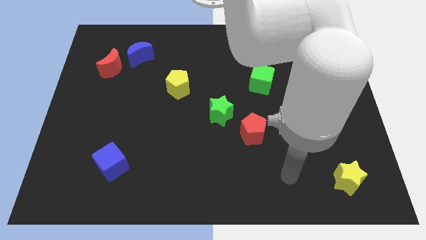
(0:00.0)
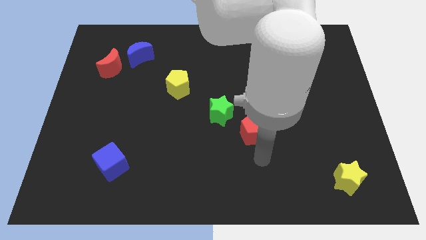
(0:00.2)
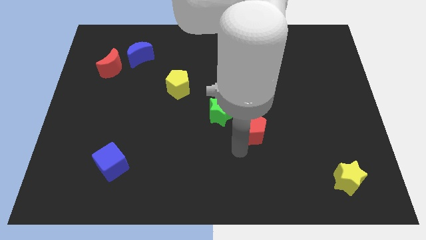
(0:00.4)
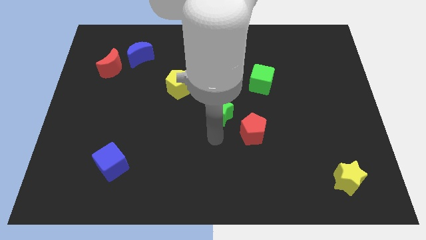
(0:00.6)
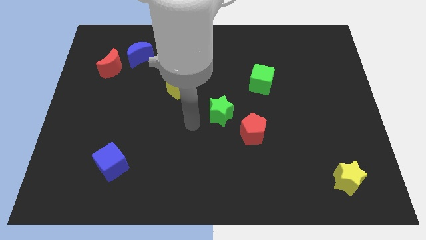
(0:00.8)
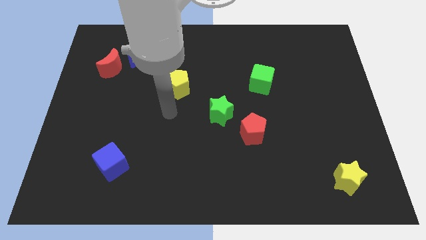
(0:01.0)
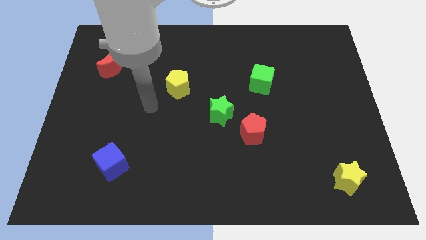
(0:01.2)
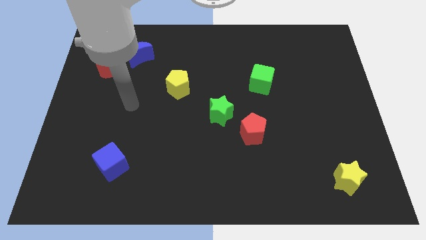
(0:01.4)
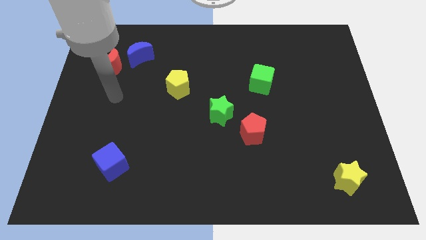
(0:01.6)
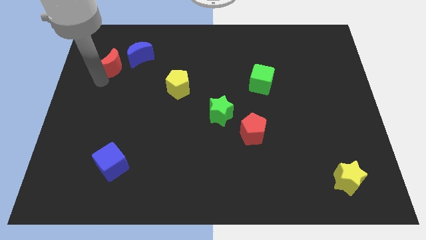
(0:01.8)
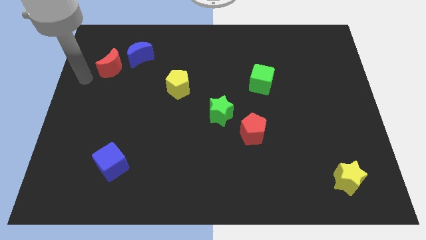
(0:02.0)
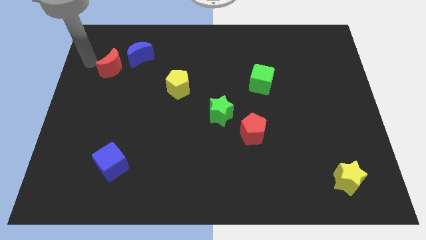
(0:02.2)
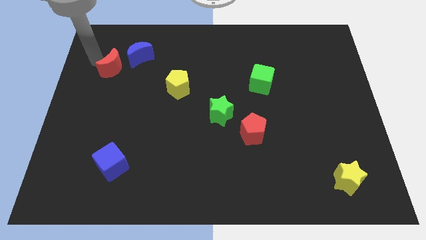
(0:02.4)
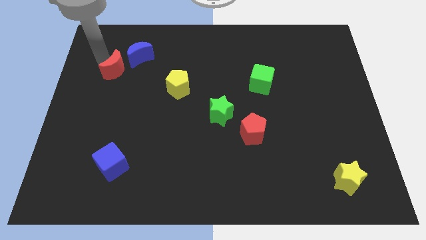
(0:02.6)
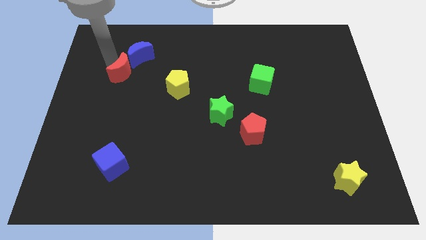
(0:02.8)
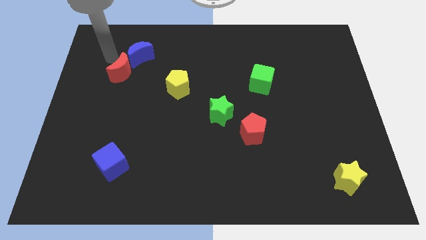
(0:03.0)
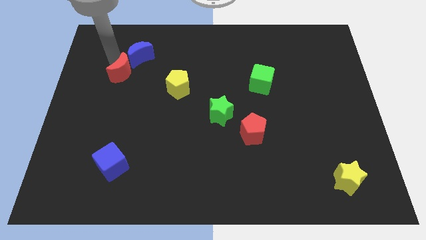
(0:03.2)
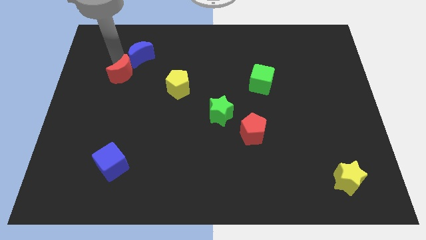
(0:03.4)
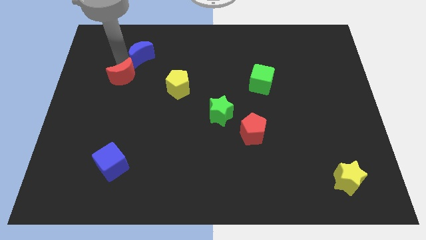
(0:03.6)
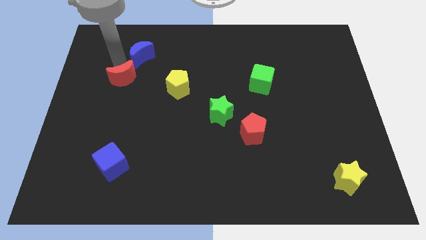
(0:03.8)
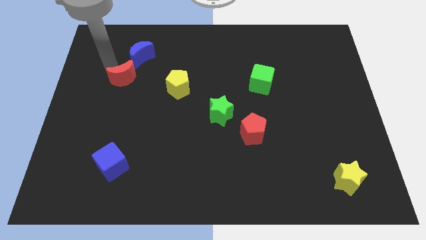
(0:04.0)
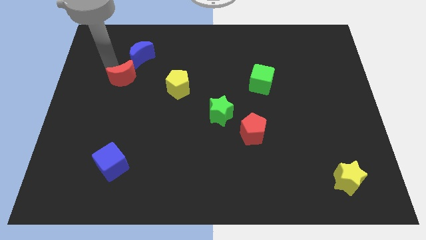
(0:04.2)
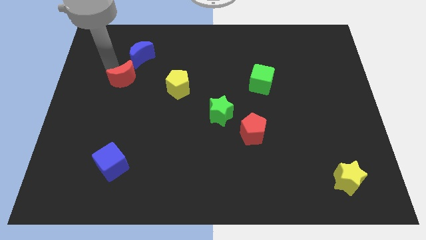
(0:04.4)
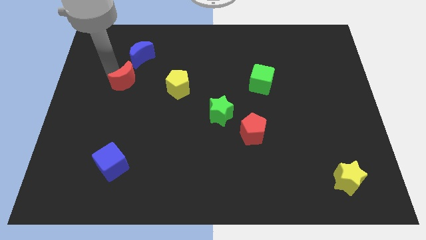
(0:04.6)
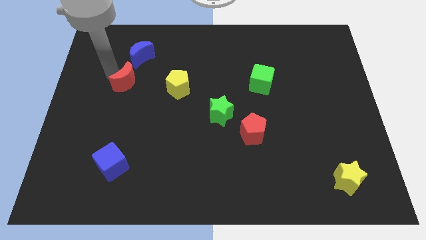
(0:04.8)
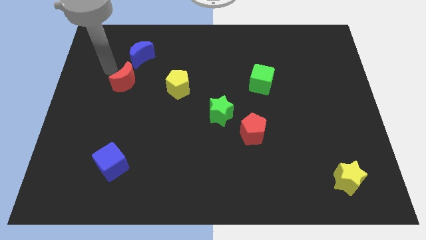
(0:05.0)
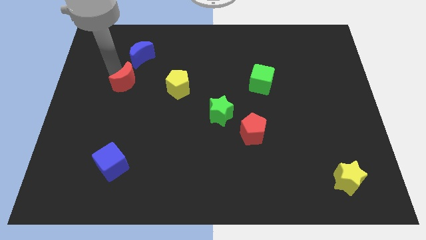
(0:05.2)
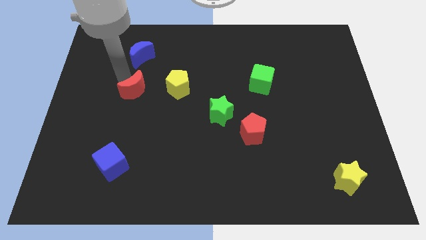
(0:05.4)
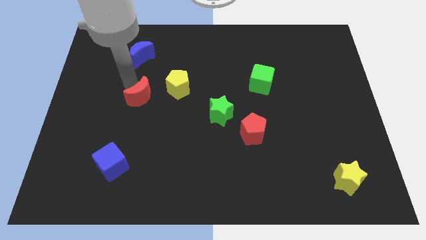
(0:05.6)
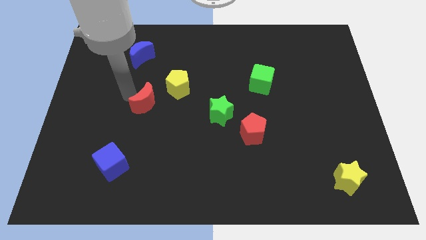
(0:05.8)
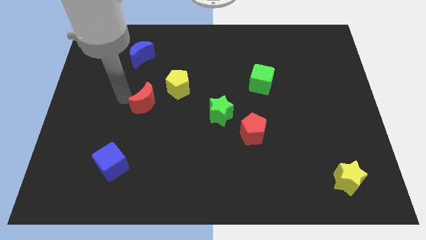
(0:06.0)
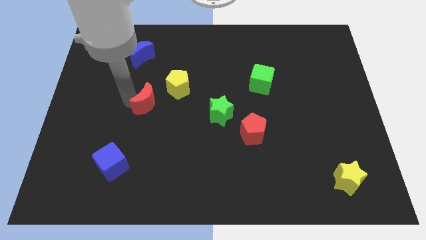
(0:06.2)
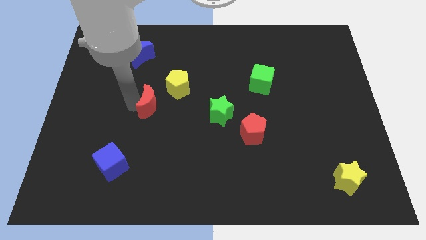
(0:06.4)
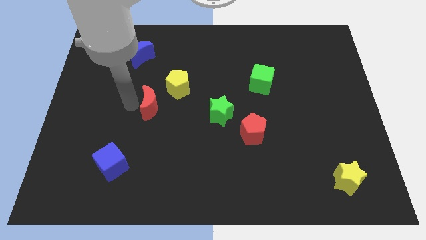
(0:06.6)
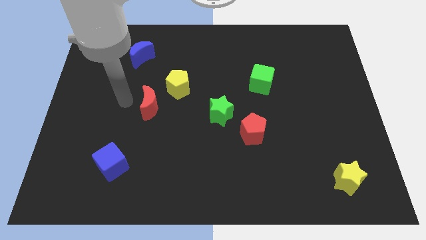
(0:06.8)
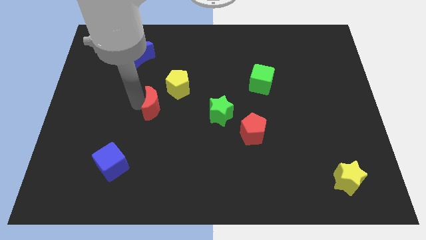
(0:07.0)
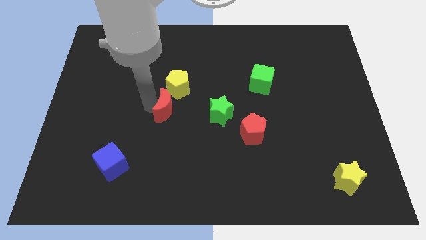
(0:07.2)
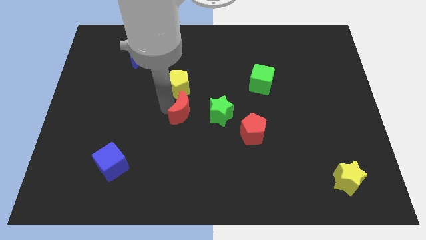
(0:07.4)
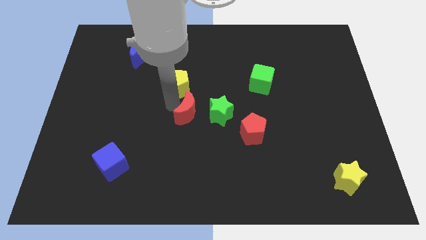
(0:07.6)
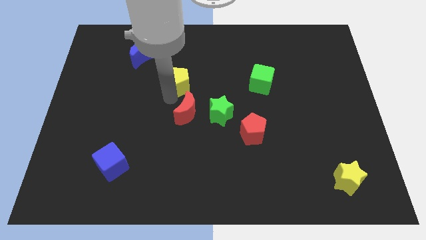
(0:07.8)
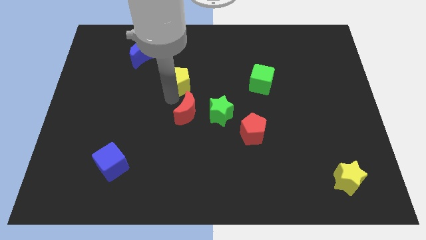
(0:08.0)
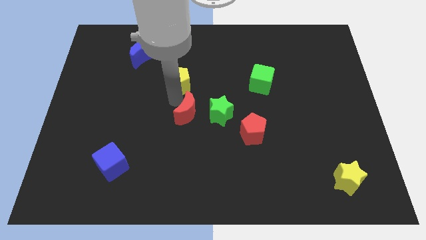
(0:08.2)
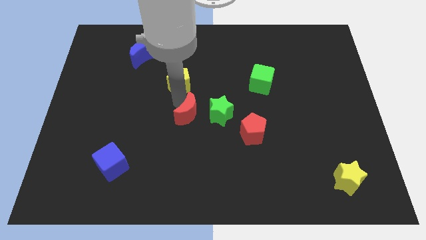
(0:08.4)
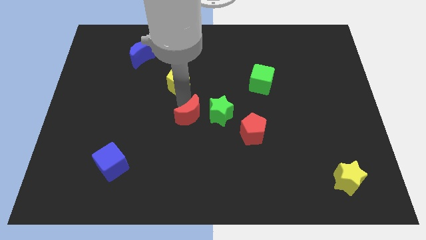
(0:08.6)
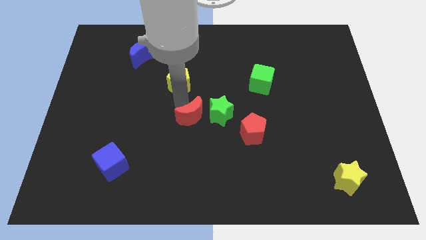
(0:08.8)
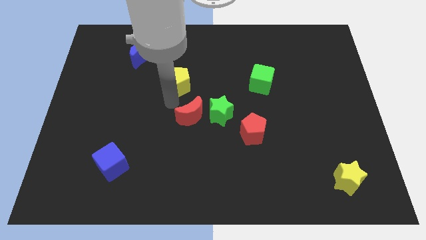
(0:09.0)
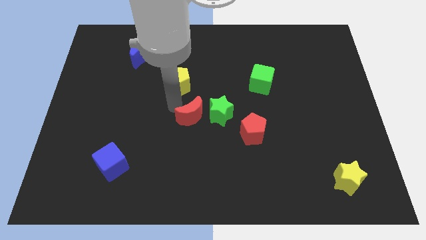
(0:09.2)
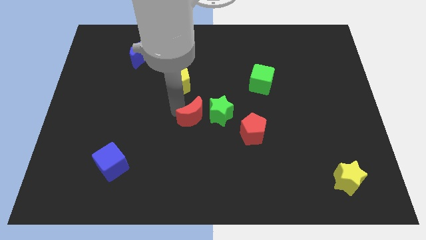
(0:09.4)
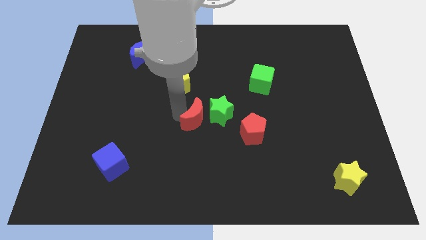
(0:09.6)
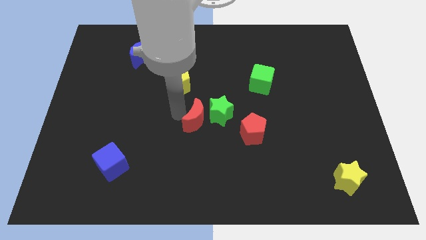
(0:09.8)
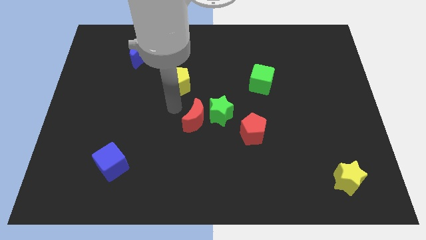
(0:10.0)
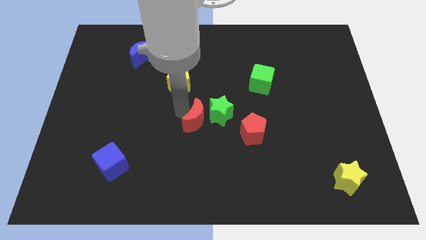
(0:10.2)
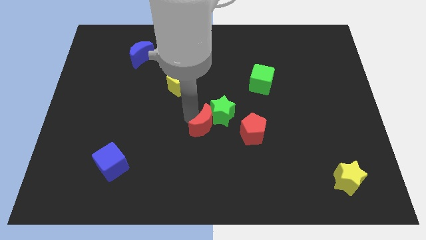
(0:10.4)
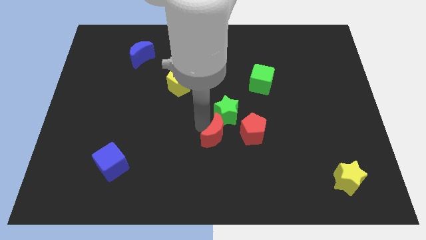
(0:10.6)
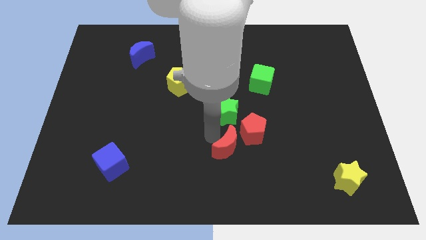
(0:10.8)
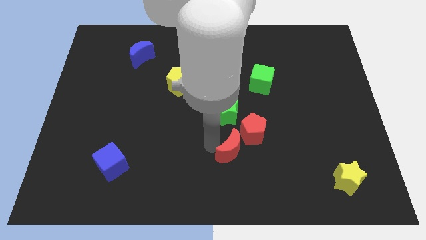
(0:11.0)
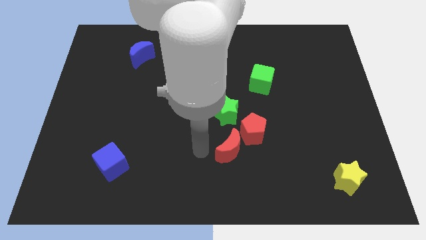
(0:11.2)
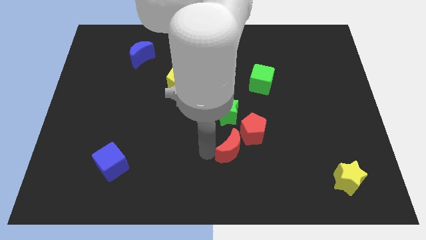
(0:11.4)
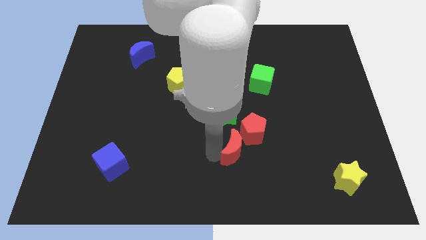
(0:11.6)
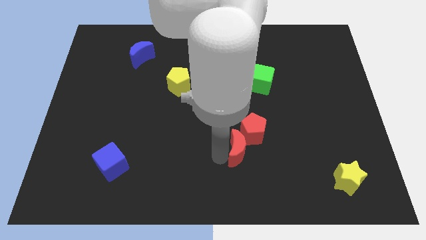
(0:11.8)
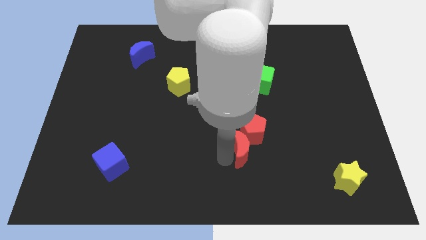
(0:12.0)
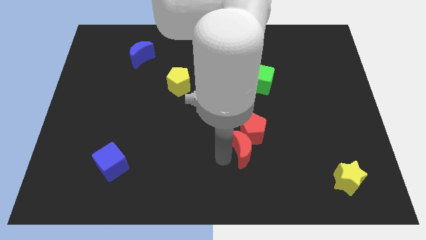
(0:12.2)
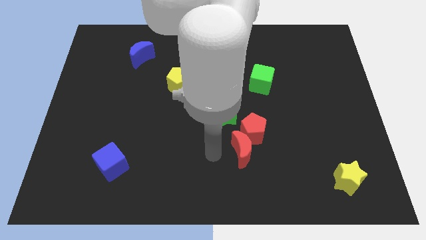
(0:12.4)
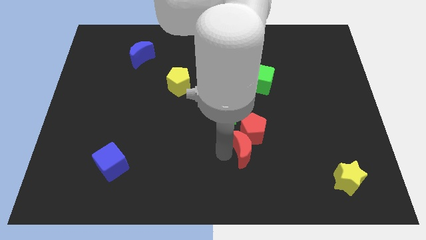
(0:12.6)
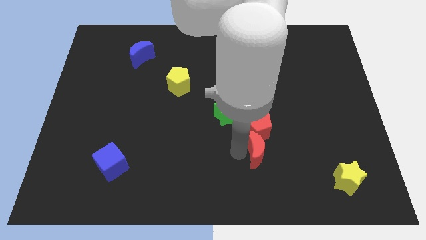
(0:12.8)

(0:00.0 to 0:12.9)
push the red moon to the bottom right side of the red pentagon
